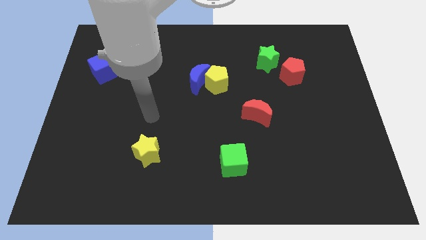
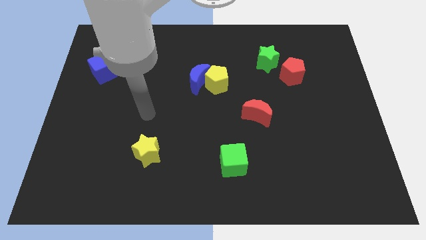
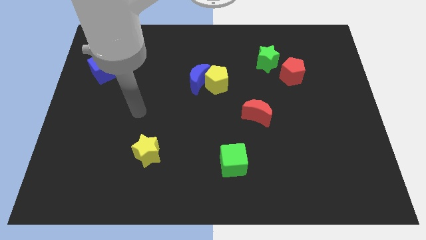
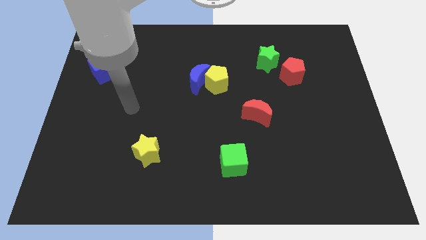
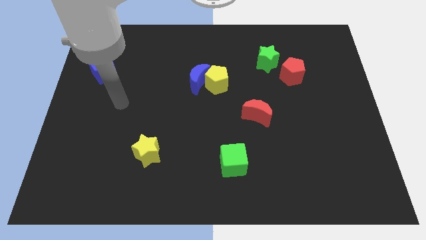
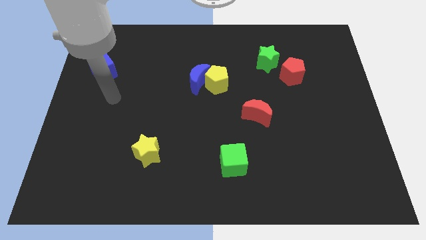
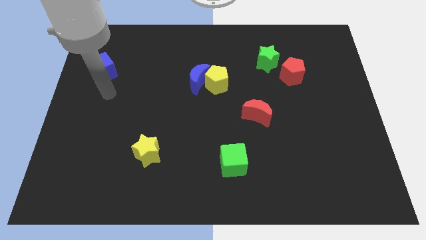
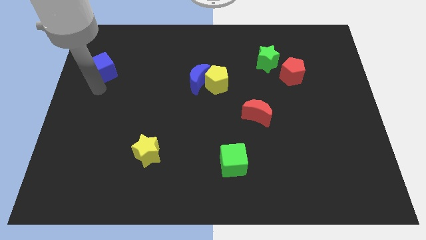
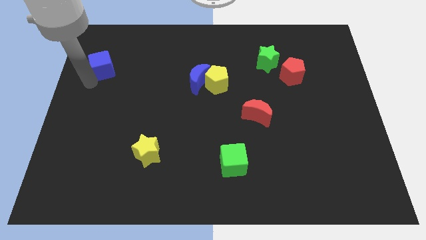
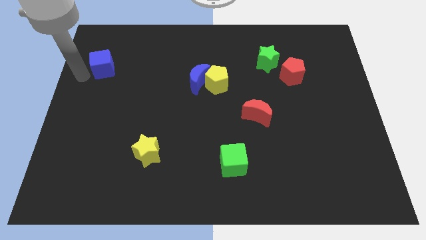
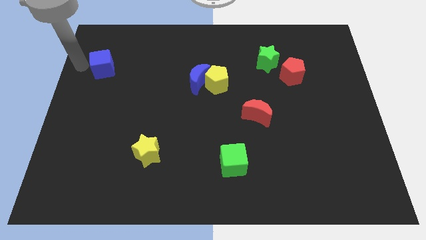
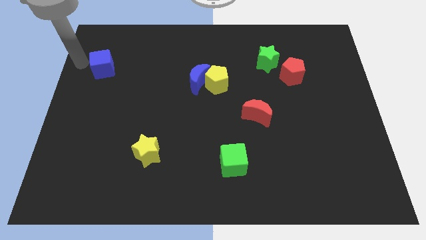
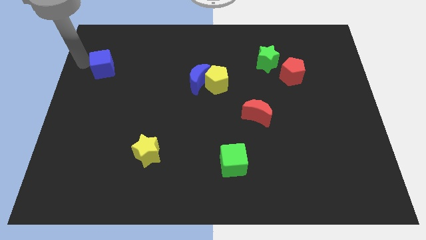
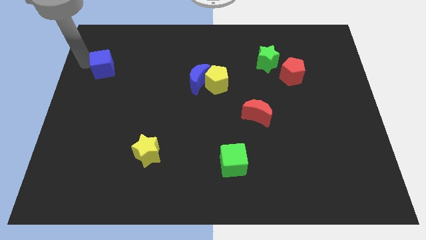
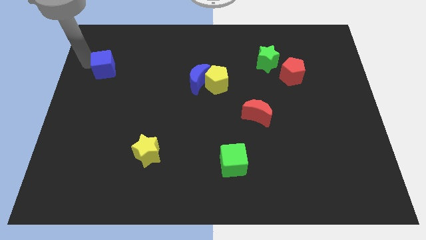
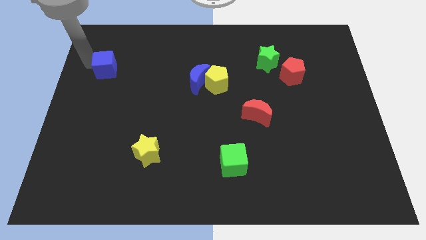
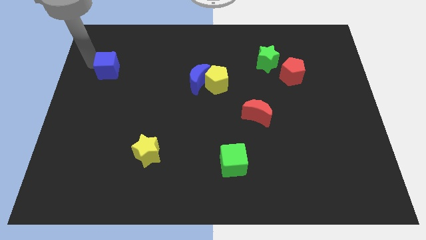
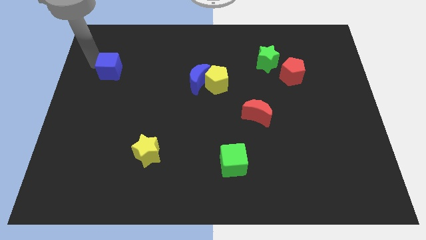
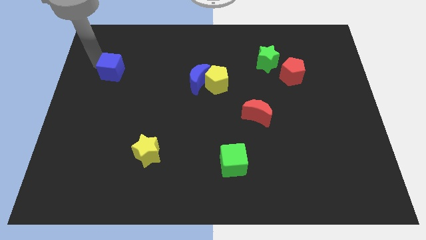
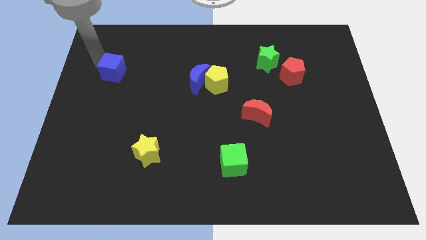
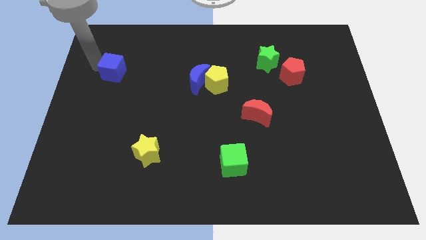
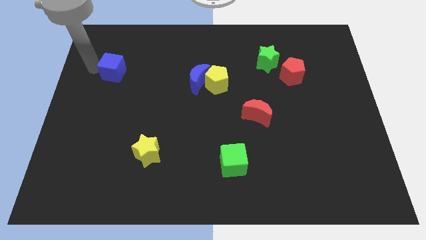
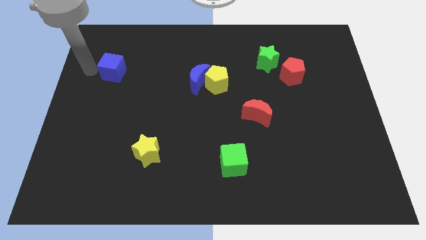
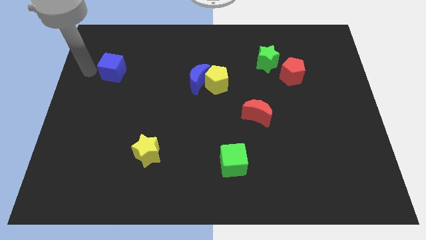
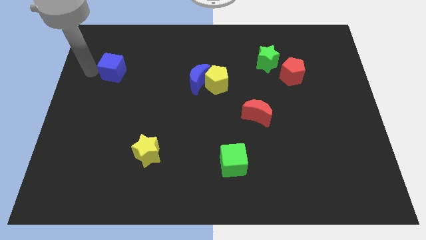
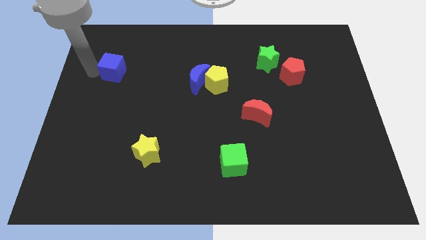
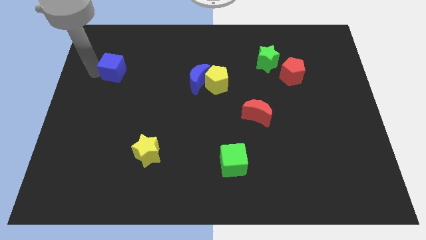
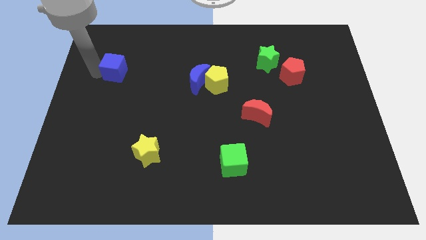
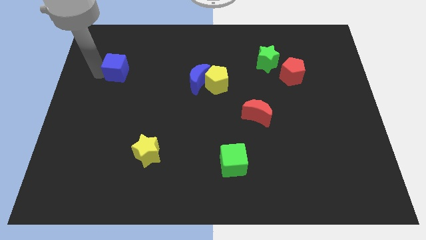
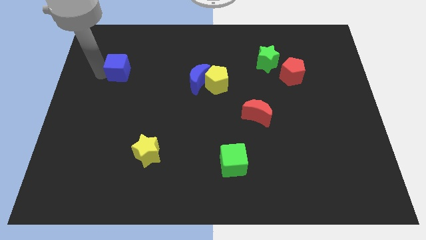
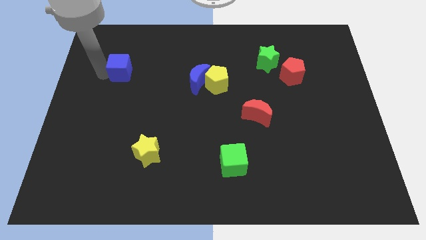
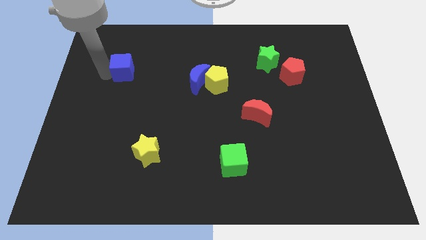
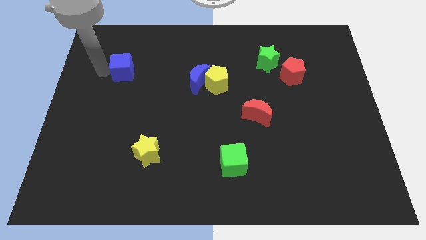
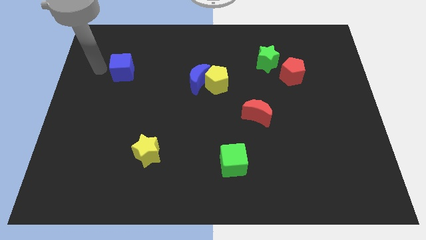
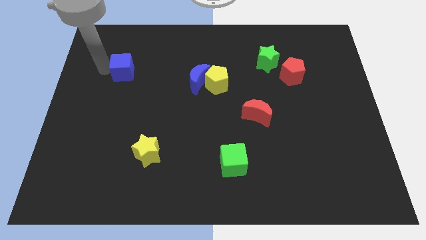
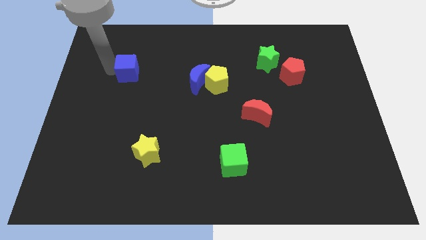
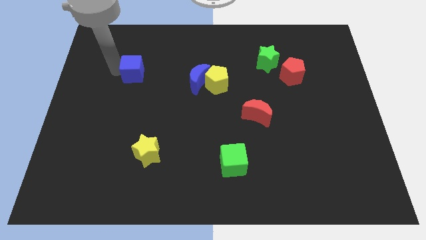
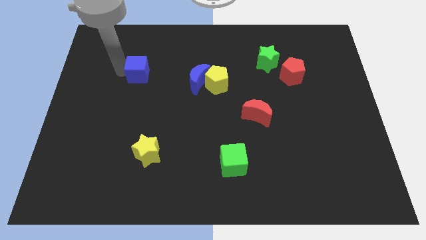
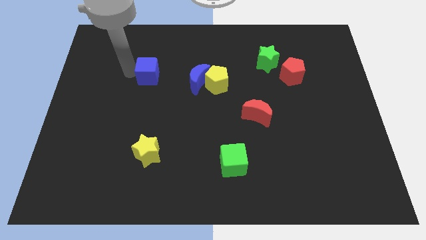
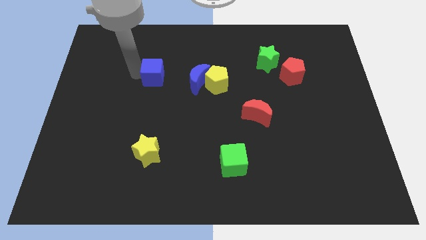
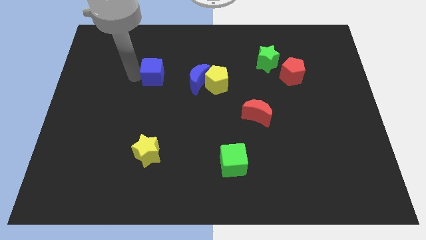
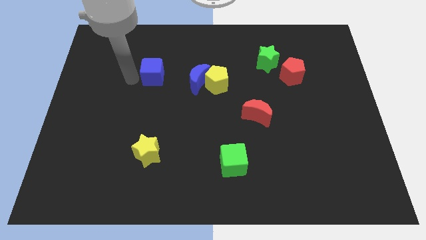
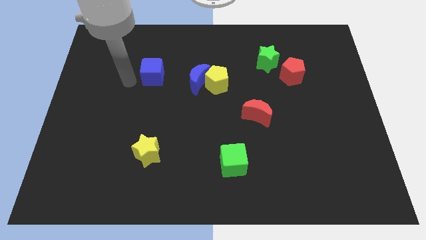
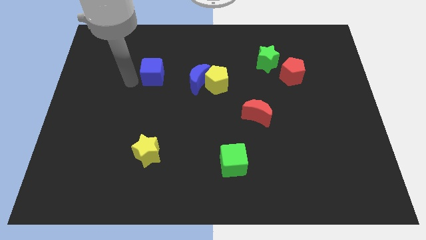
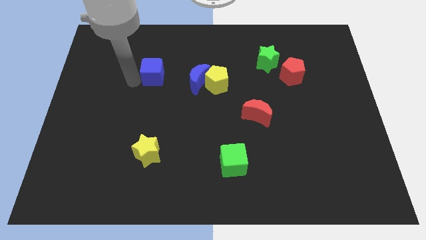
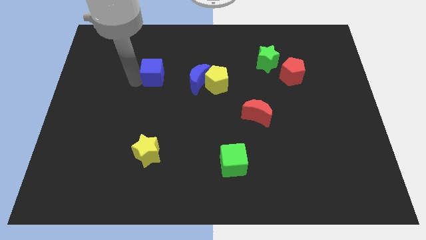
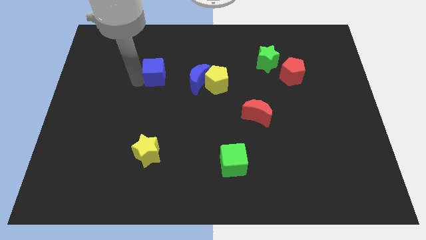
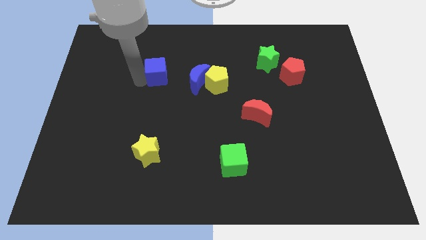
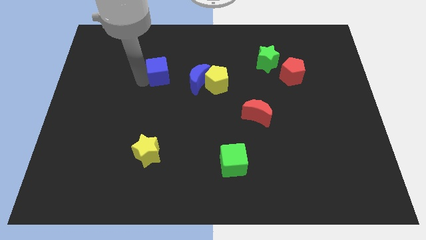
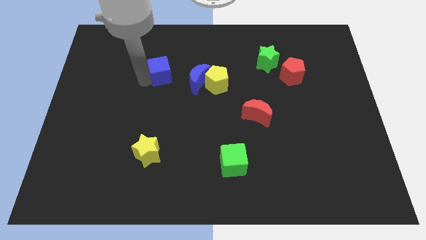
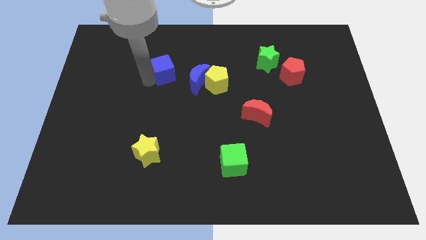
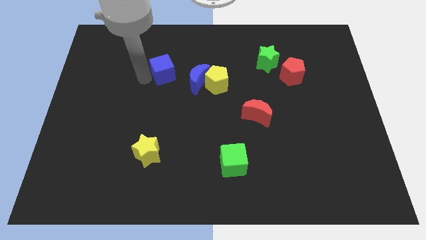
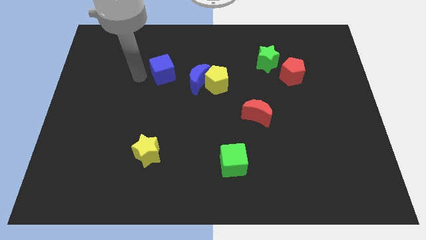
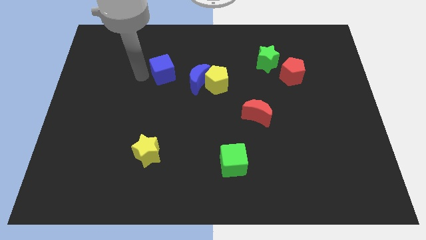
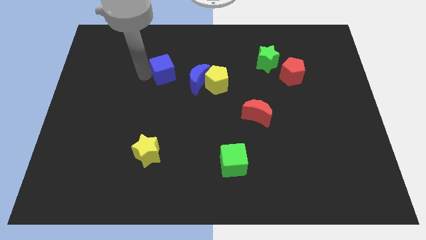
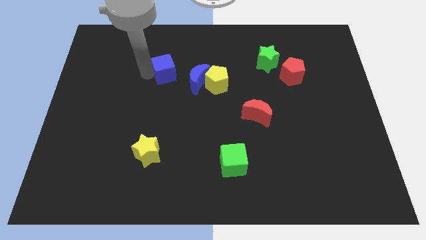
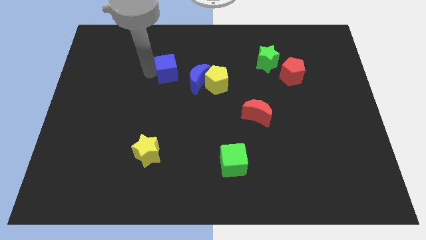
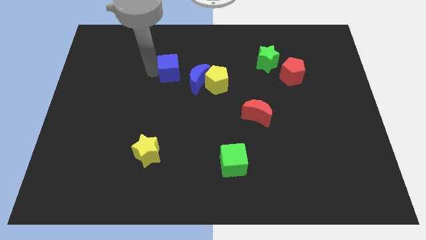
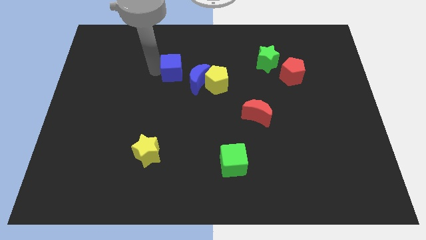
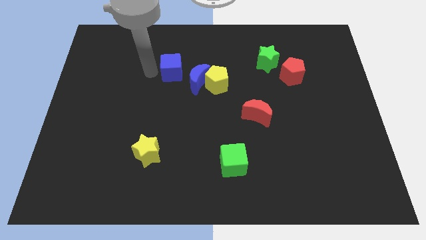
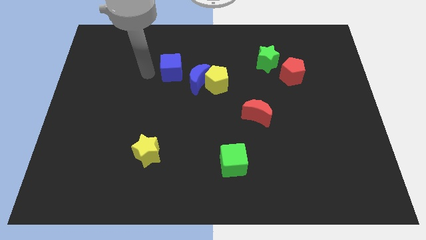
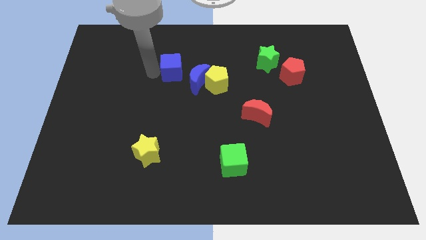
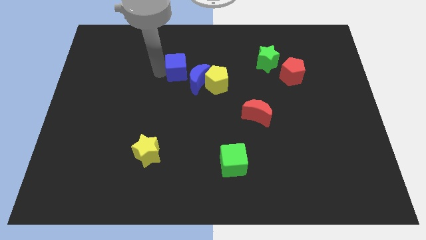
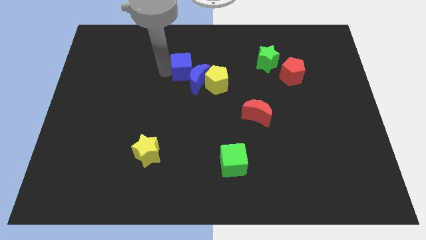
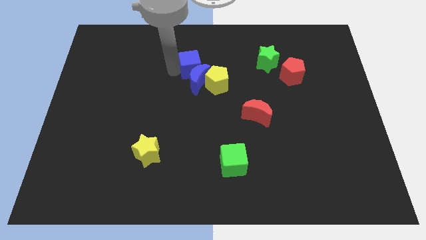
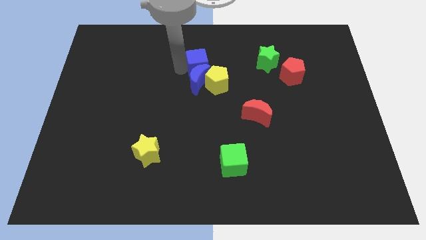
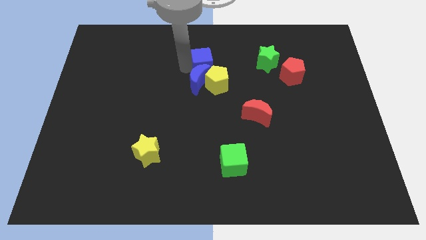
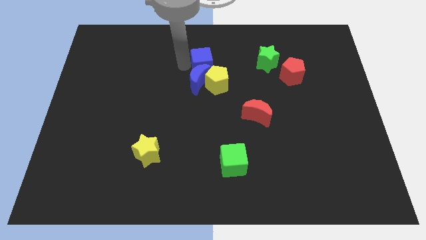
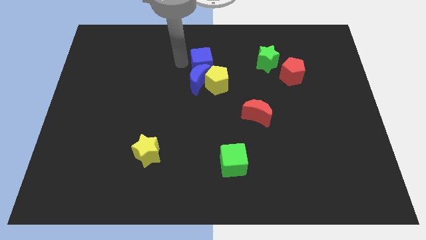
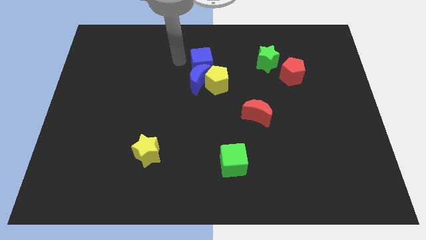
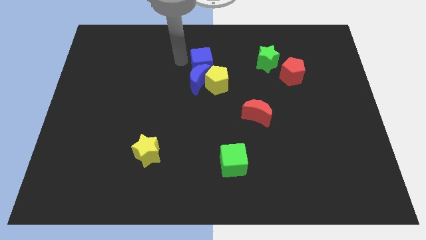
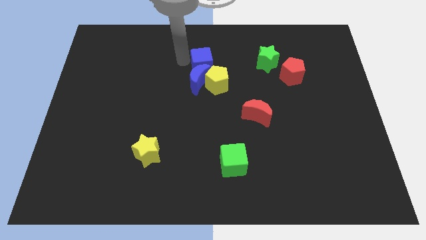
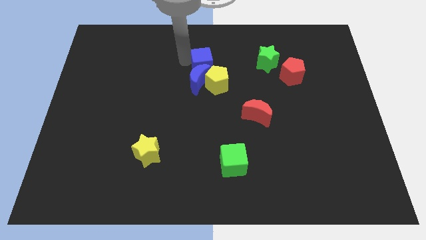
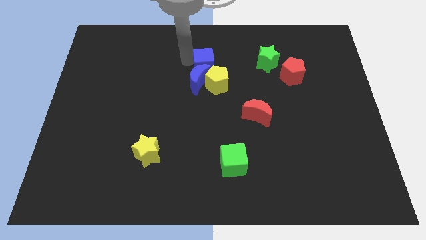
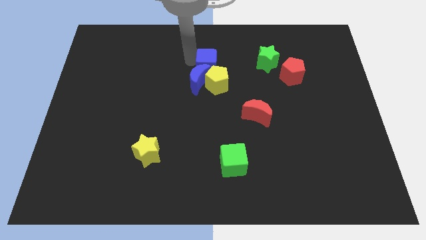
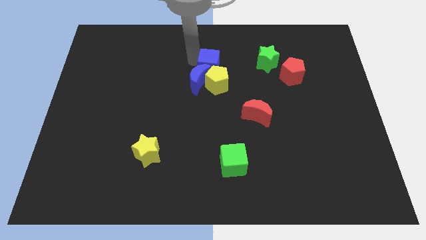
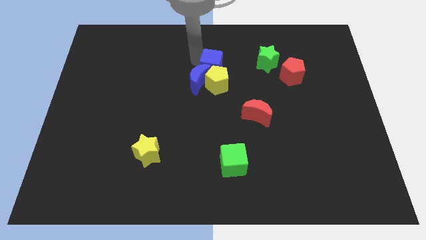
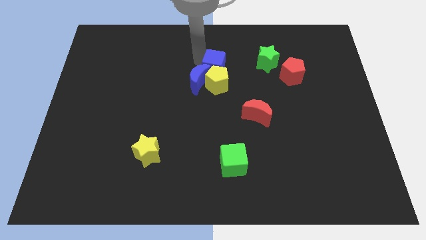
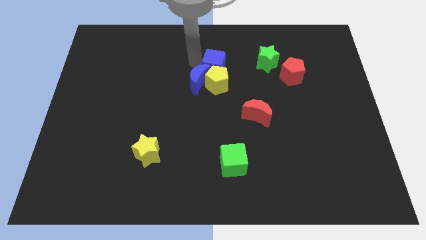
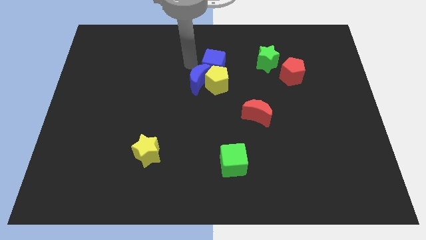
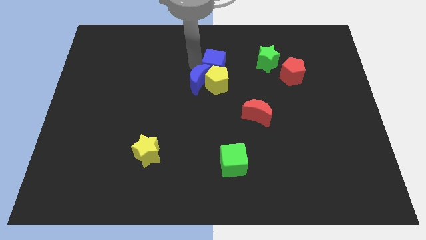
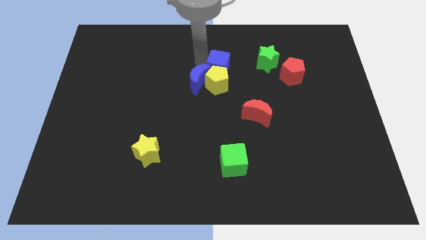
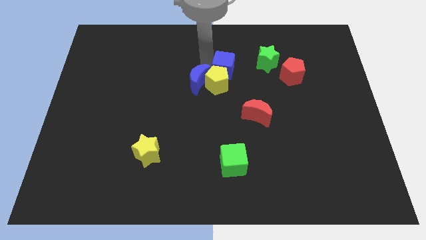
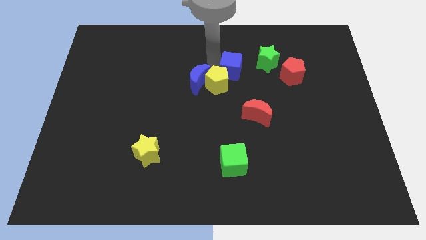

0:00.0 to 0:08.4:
put the blue cube diagonally down and to the left of the green star
